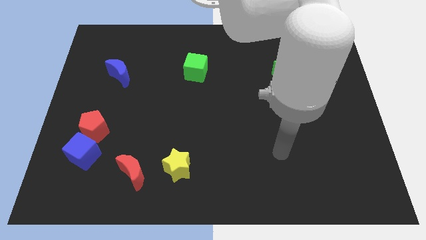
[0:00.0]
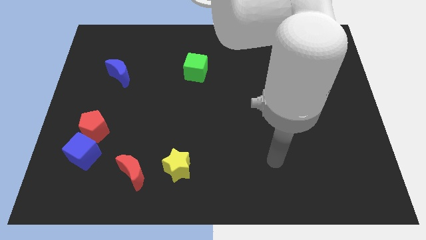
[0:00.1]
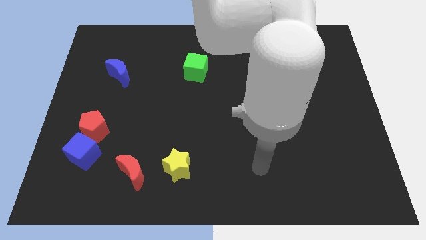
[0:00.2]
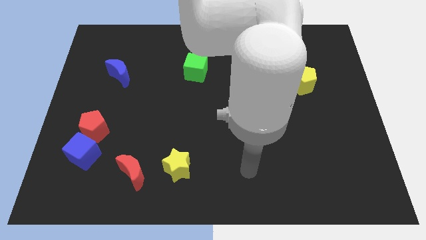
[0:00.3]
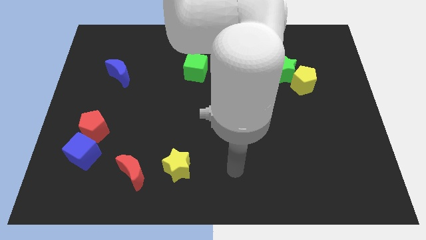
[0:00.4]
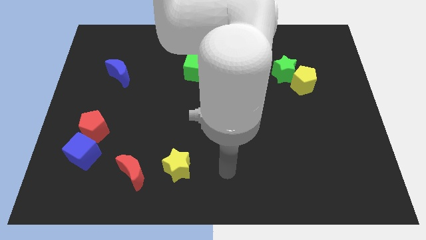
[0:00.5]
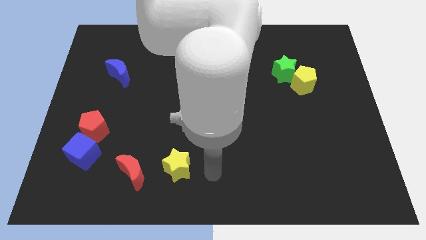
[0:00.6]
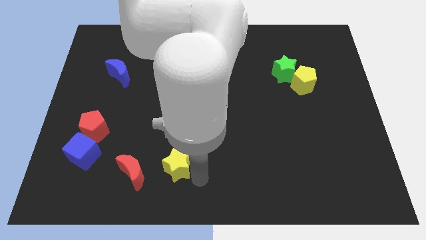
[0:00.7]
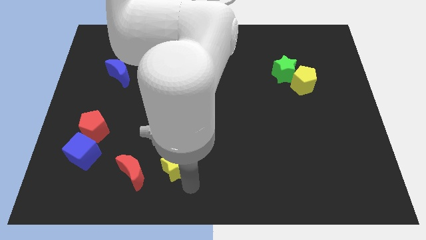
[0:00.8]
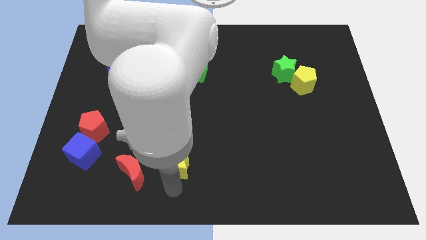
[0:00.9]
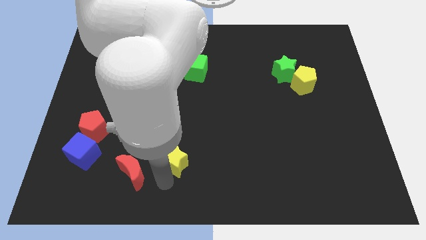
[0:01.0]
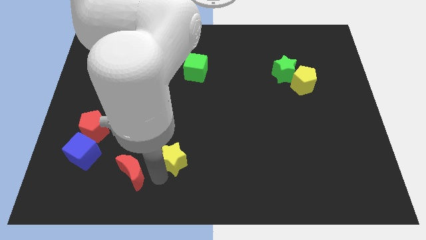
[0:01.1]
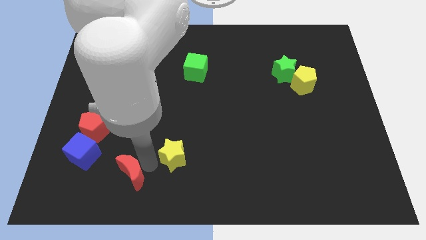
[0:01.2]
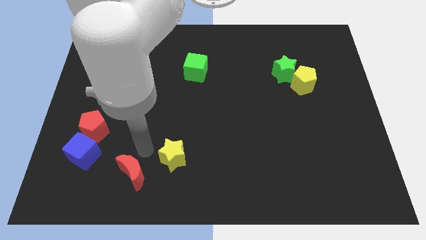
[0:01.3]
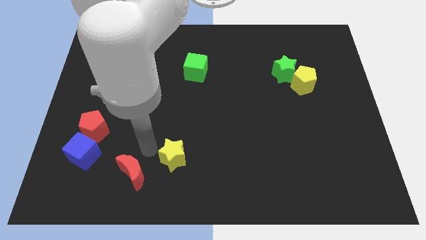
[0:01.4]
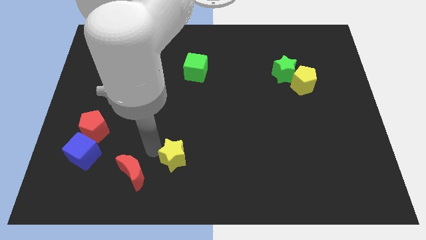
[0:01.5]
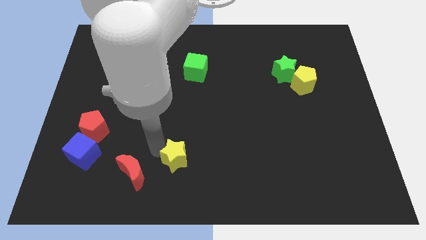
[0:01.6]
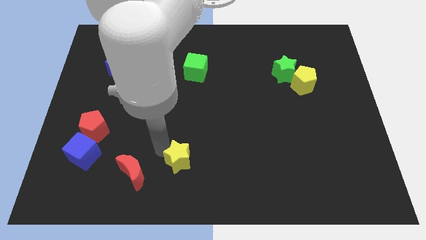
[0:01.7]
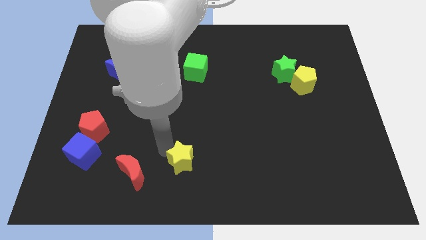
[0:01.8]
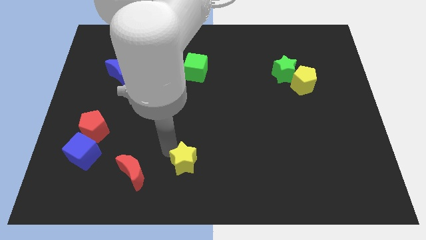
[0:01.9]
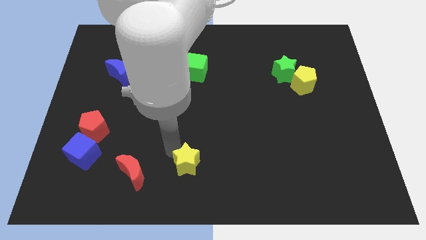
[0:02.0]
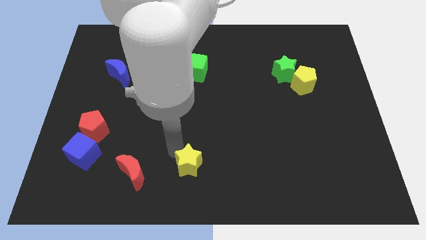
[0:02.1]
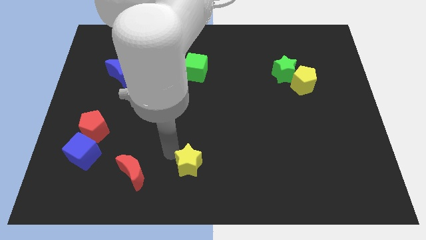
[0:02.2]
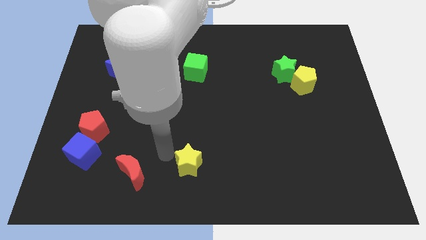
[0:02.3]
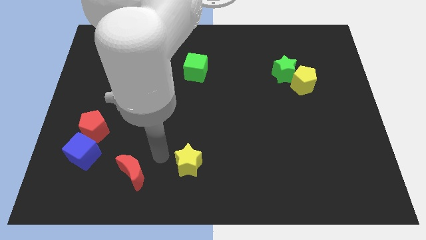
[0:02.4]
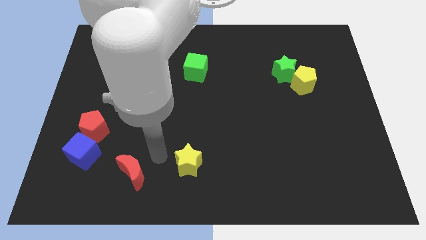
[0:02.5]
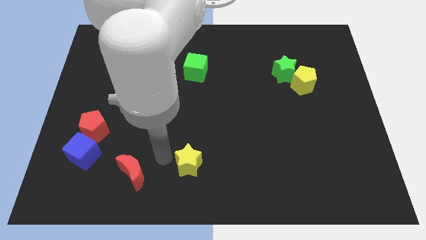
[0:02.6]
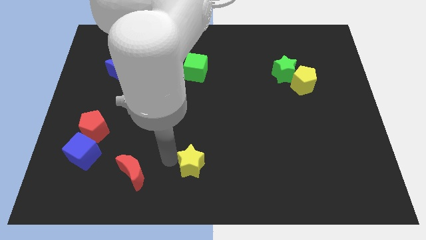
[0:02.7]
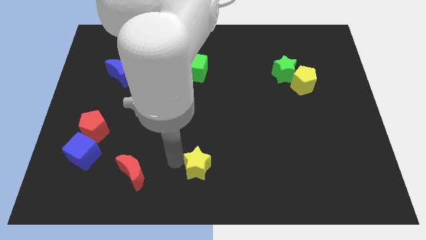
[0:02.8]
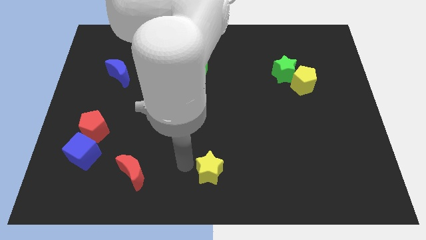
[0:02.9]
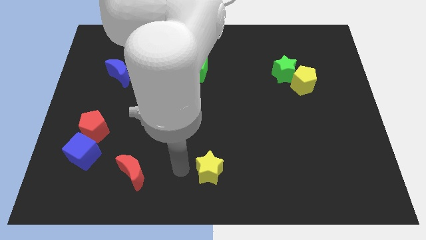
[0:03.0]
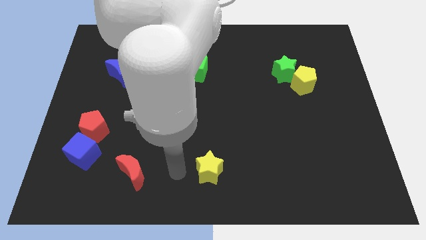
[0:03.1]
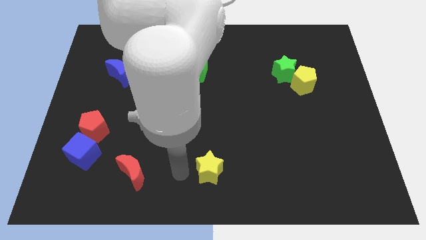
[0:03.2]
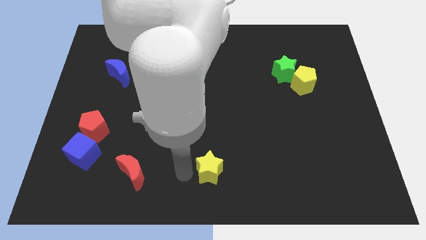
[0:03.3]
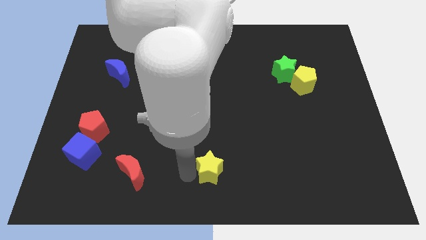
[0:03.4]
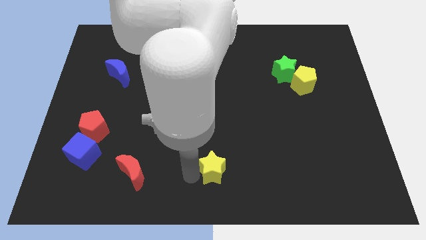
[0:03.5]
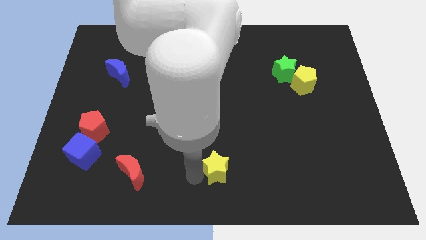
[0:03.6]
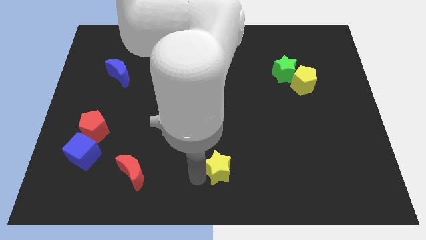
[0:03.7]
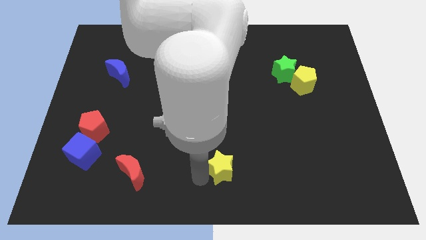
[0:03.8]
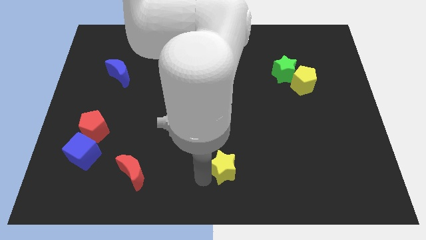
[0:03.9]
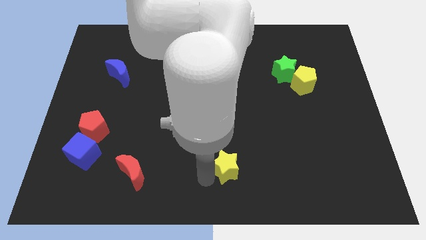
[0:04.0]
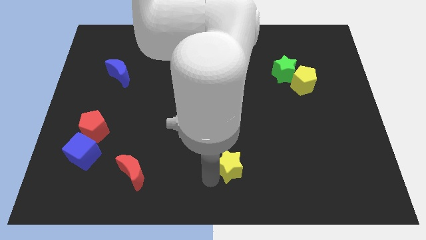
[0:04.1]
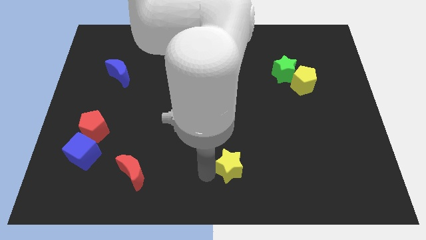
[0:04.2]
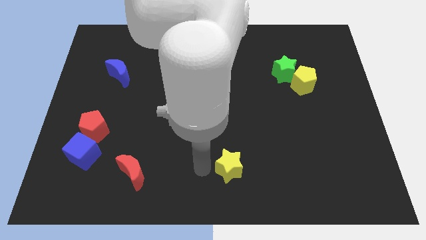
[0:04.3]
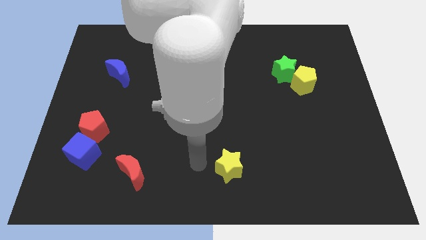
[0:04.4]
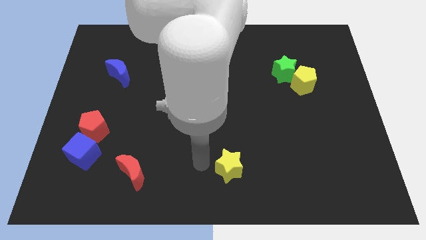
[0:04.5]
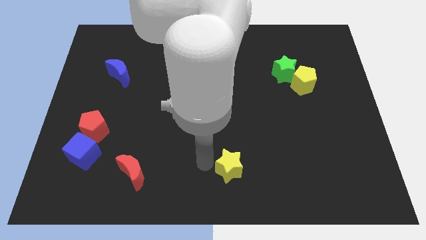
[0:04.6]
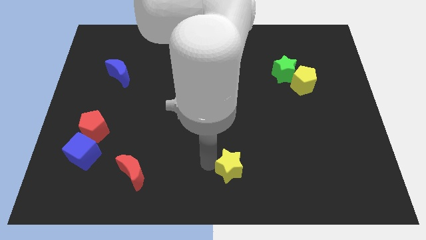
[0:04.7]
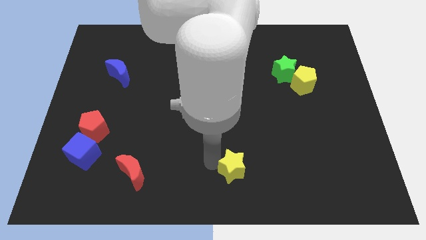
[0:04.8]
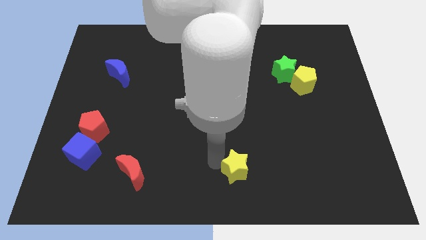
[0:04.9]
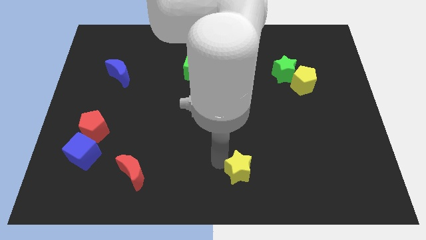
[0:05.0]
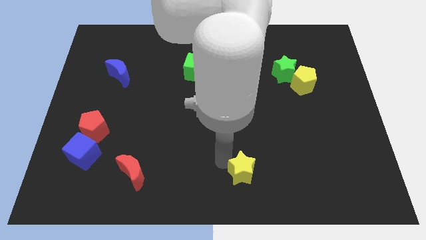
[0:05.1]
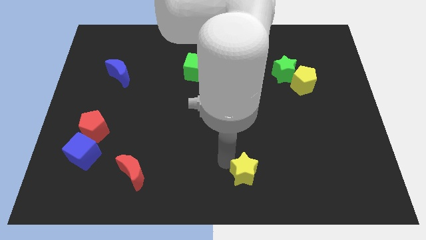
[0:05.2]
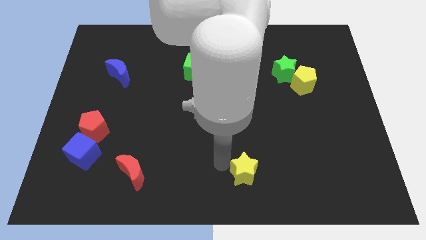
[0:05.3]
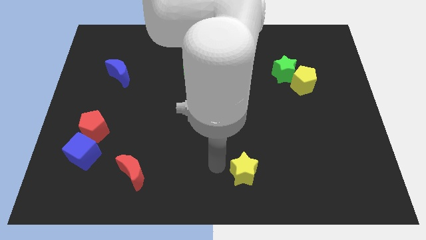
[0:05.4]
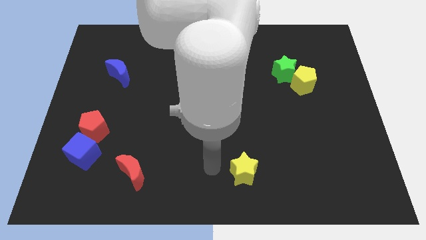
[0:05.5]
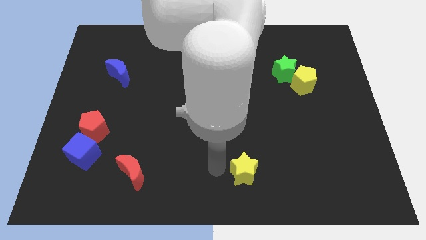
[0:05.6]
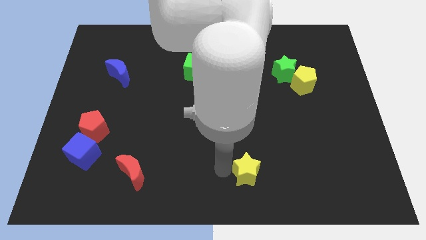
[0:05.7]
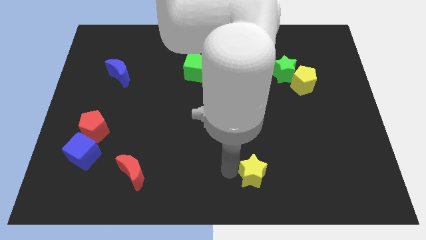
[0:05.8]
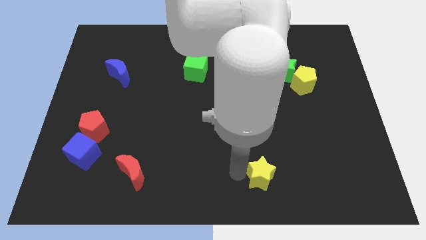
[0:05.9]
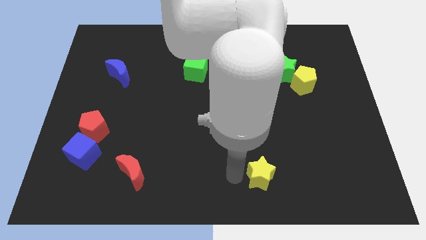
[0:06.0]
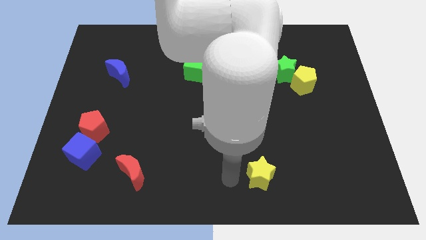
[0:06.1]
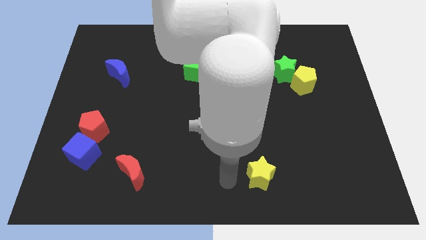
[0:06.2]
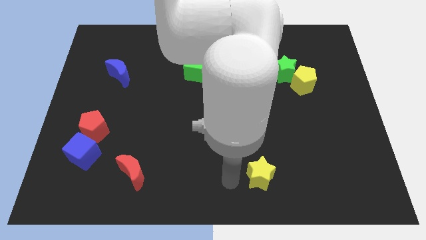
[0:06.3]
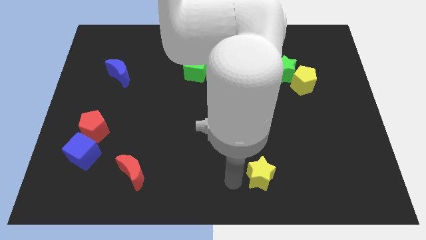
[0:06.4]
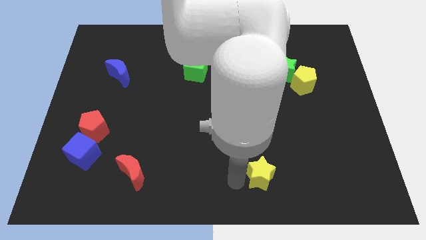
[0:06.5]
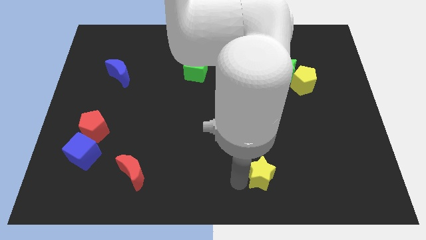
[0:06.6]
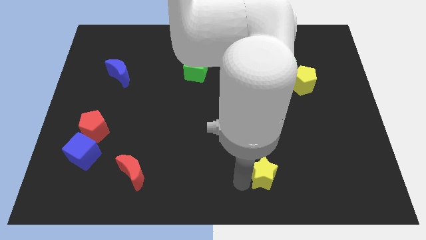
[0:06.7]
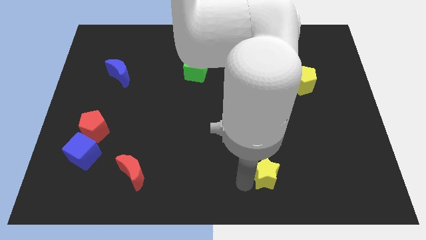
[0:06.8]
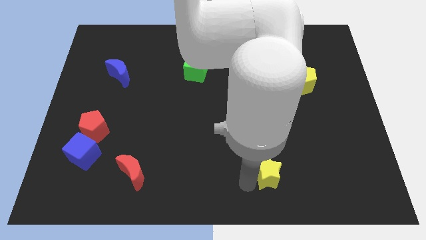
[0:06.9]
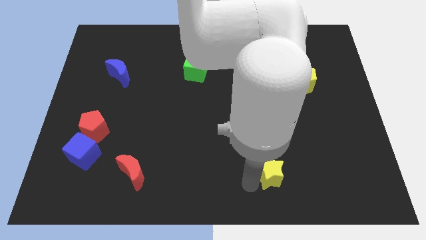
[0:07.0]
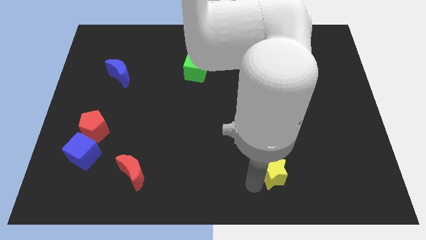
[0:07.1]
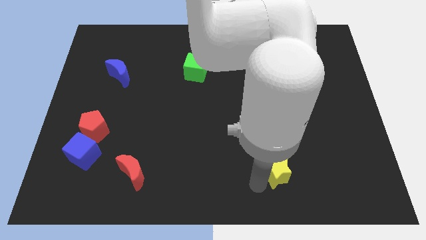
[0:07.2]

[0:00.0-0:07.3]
slide the yellow star to the right

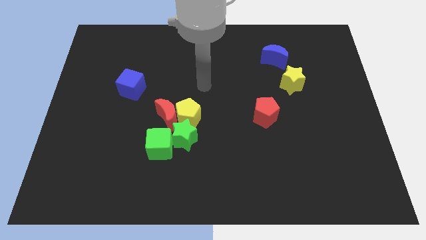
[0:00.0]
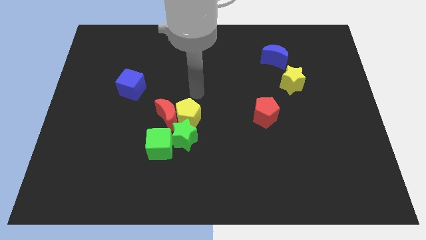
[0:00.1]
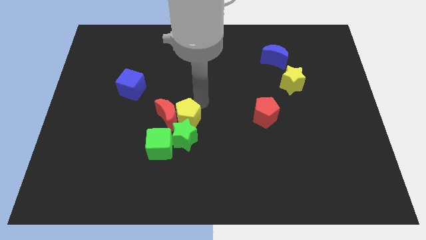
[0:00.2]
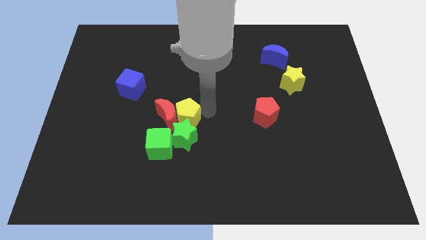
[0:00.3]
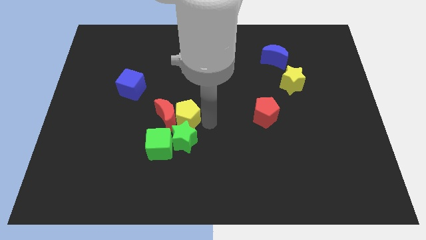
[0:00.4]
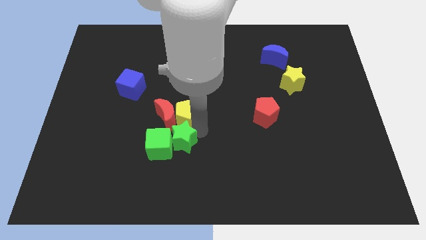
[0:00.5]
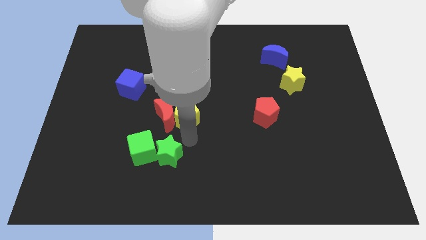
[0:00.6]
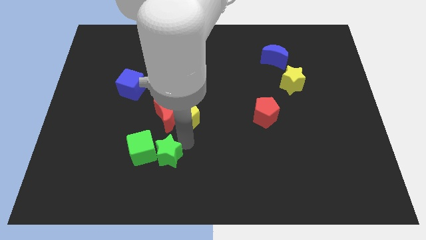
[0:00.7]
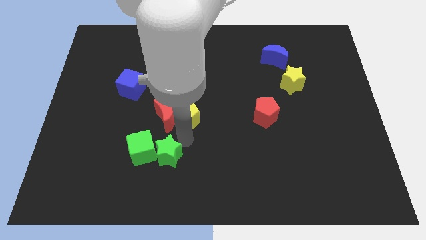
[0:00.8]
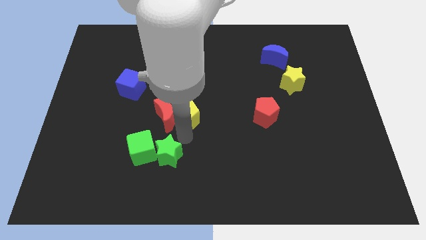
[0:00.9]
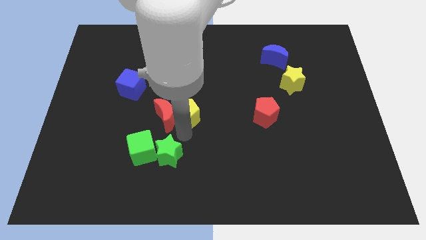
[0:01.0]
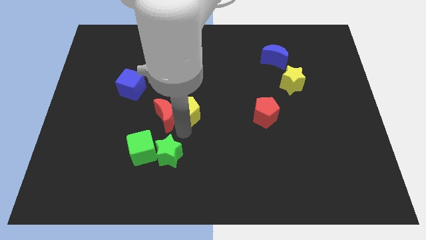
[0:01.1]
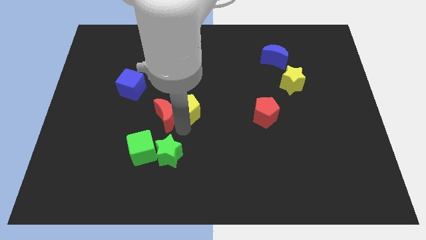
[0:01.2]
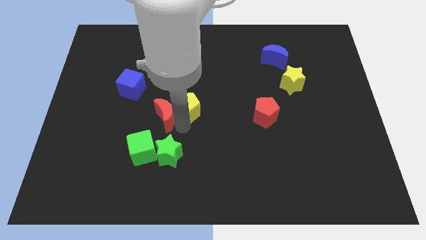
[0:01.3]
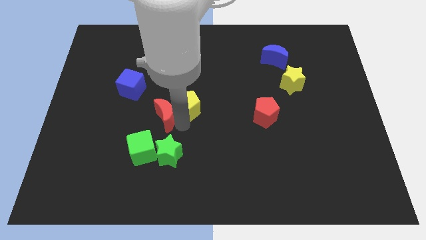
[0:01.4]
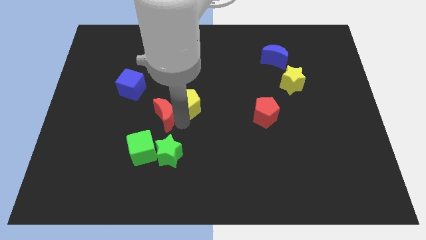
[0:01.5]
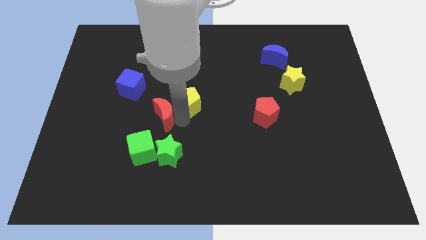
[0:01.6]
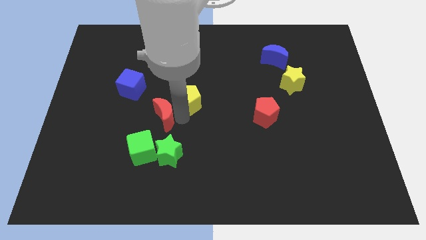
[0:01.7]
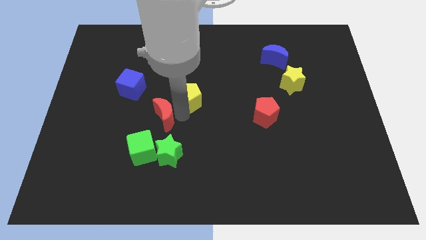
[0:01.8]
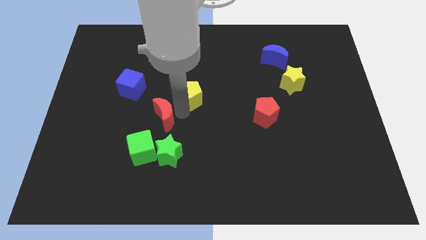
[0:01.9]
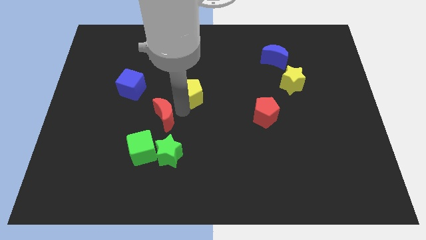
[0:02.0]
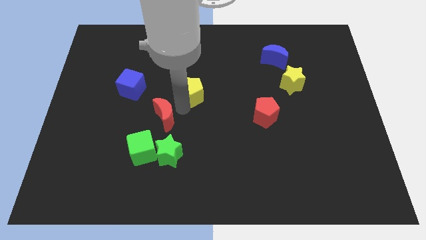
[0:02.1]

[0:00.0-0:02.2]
move the yellow pentagon a little bit up
